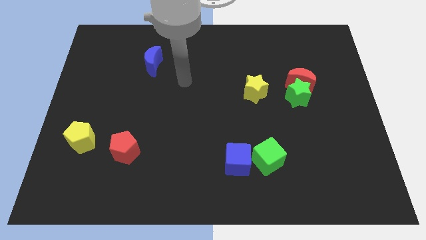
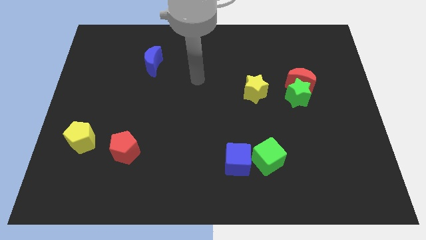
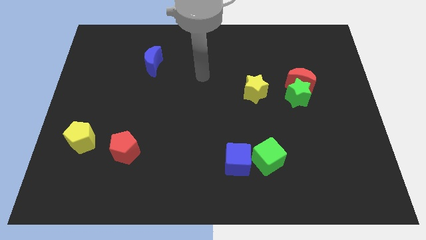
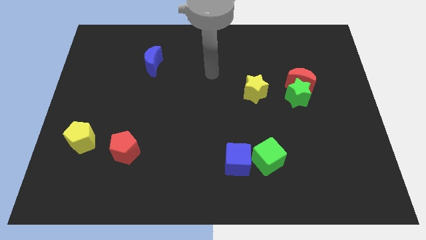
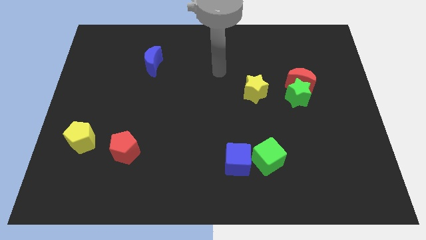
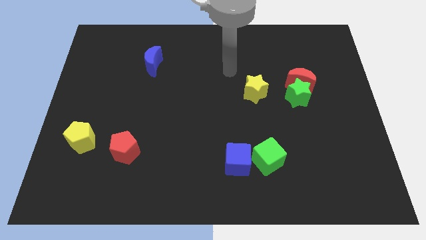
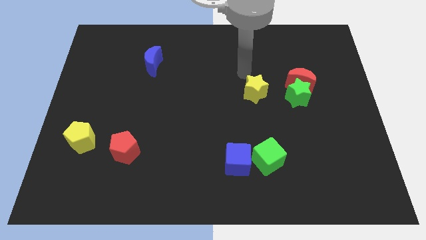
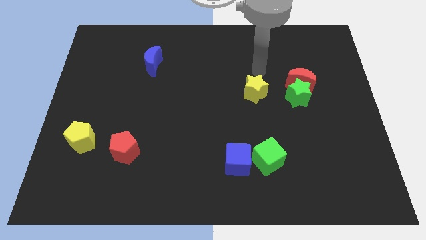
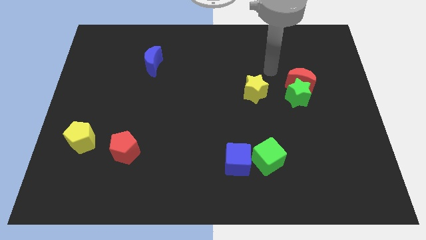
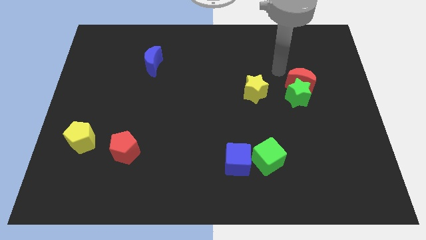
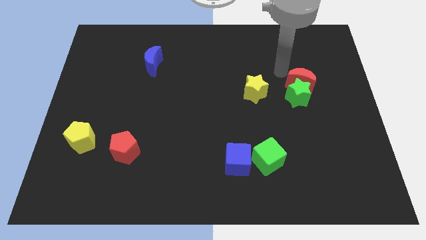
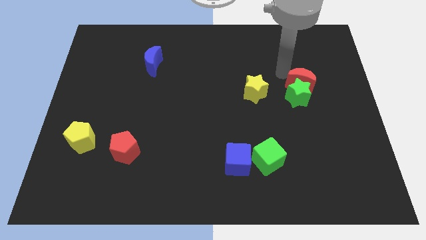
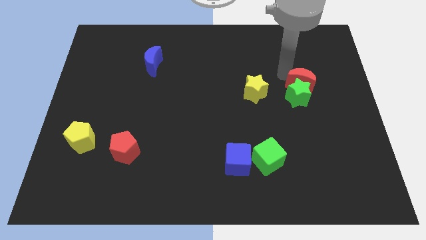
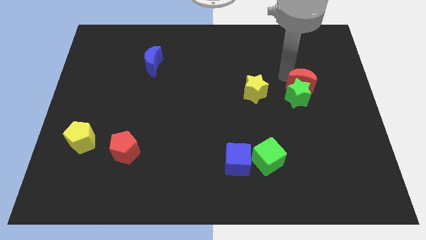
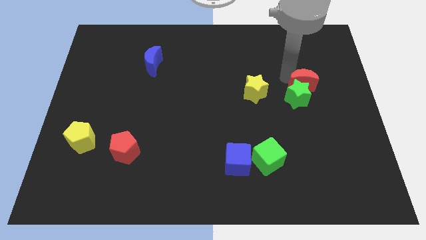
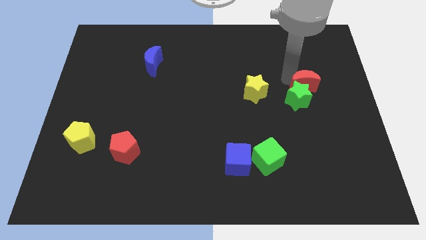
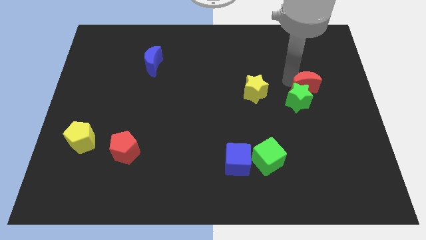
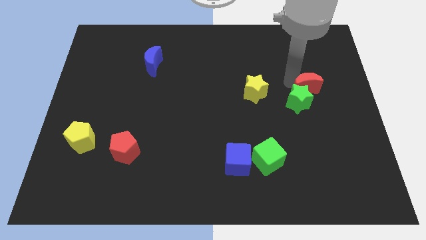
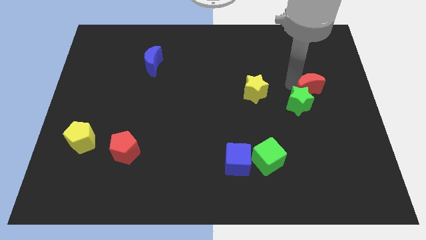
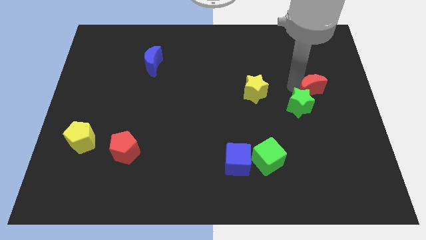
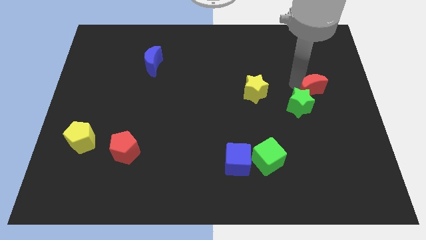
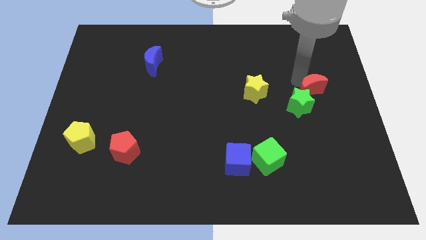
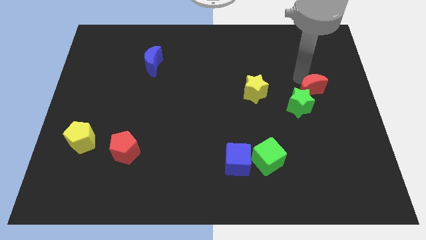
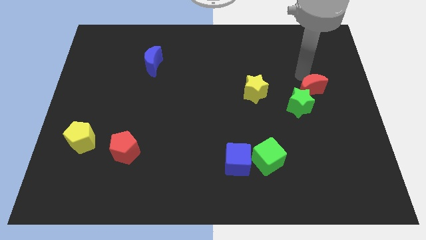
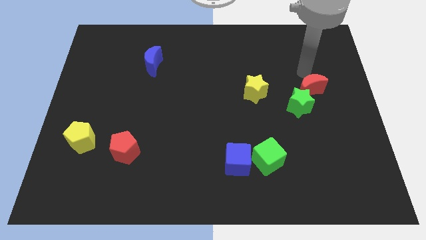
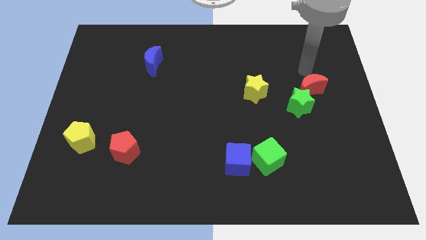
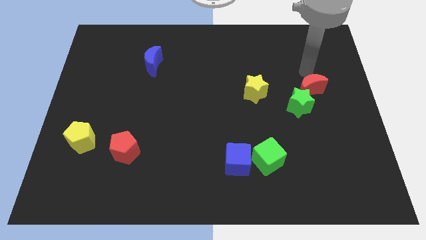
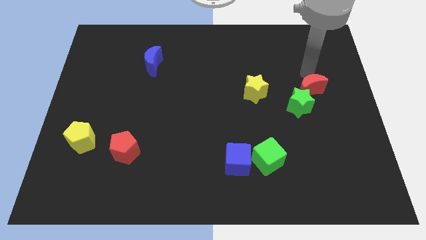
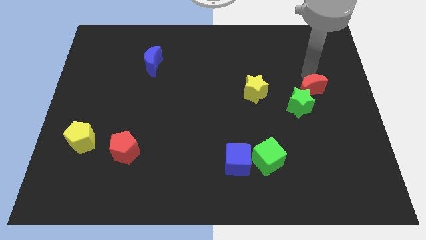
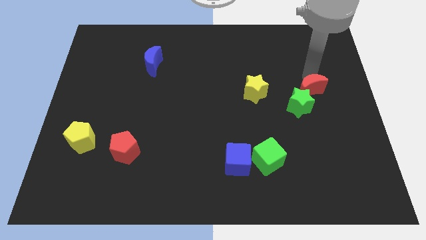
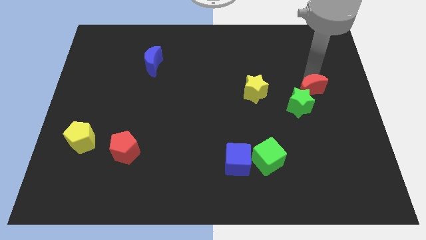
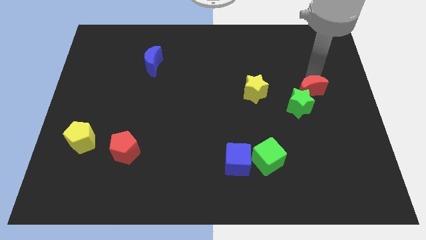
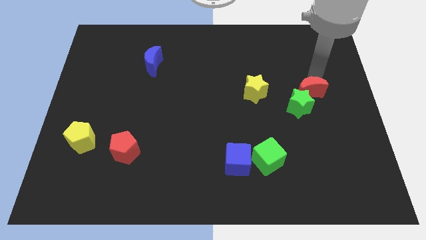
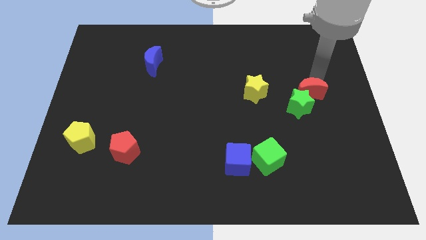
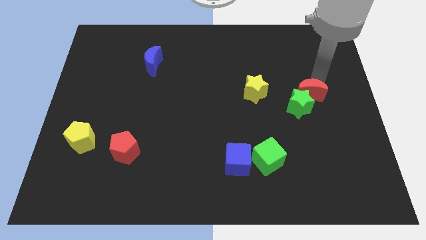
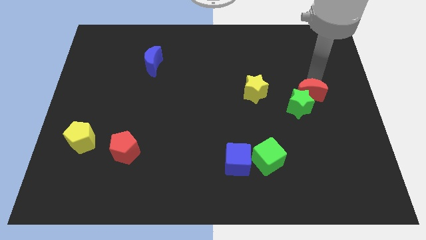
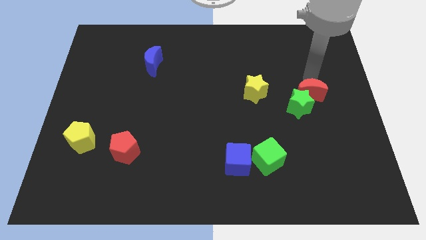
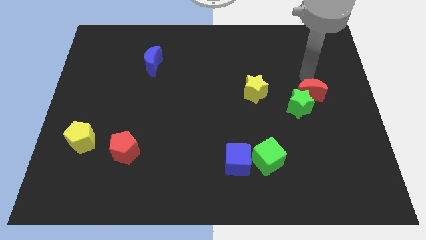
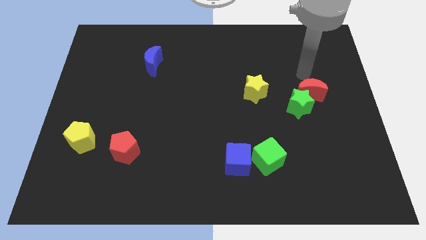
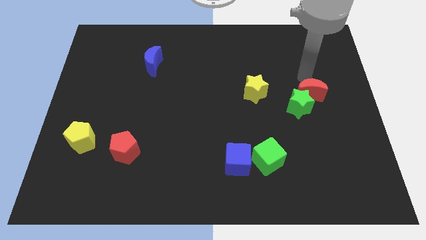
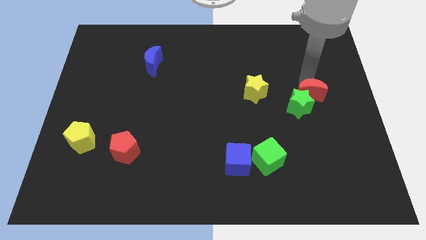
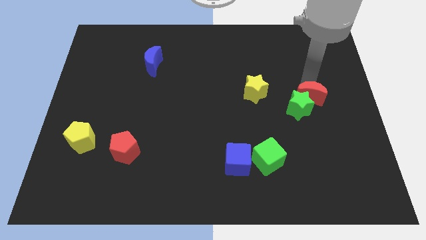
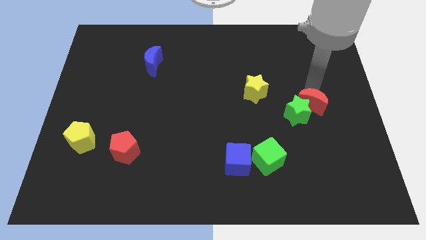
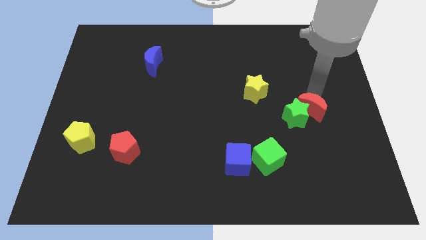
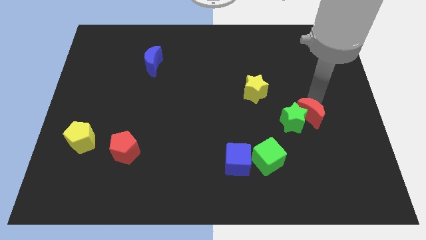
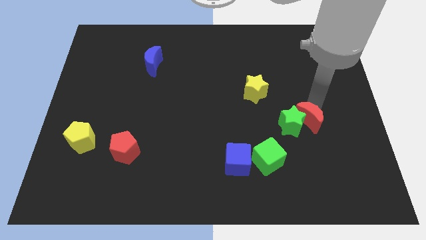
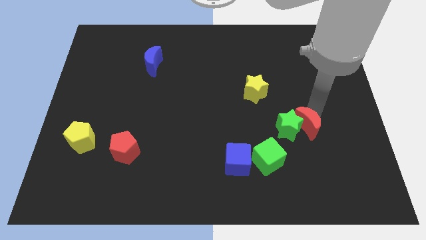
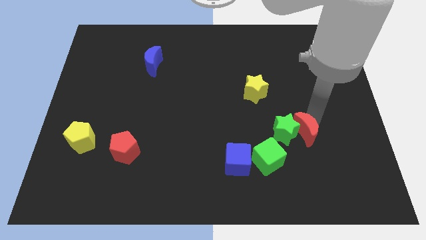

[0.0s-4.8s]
push the red moon to the top right side of the green cube

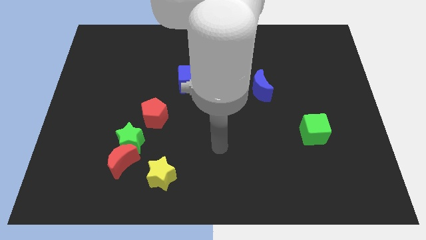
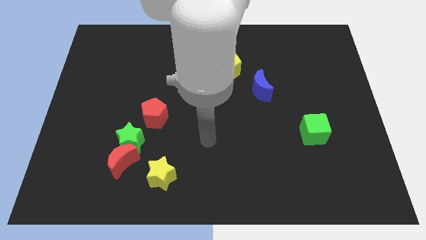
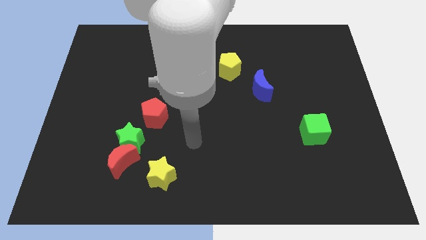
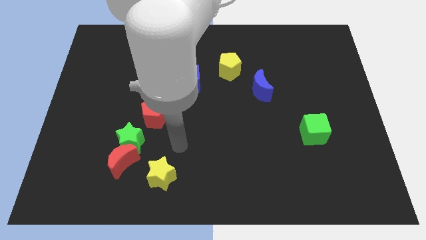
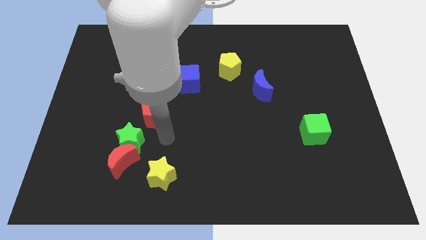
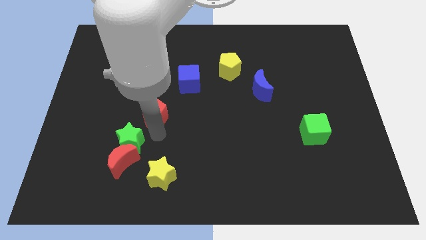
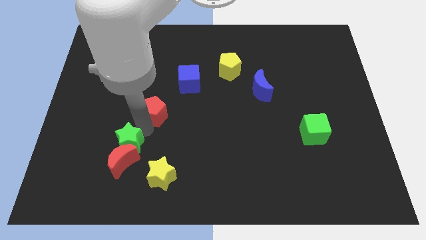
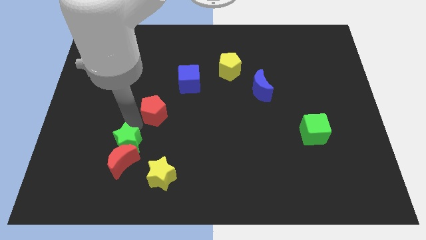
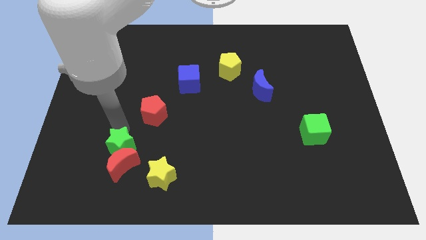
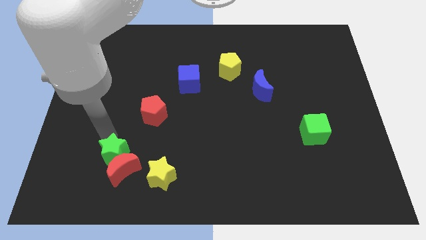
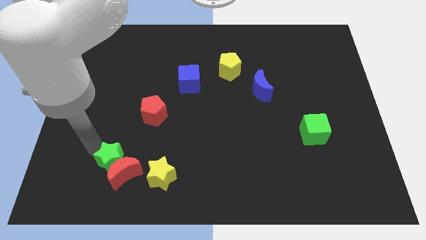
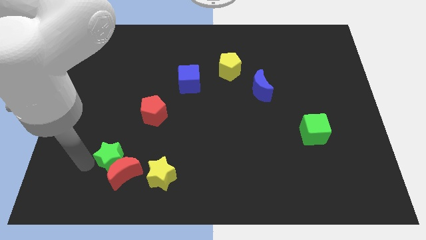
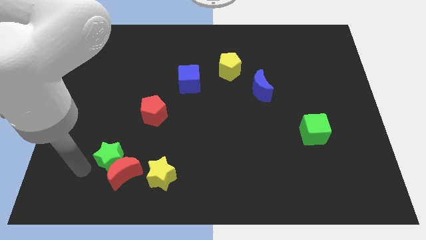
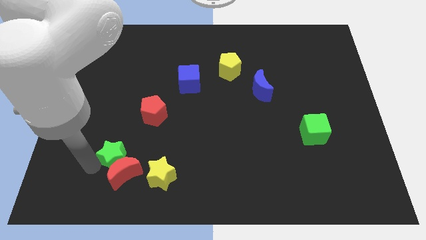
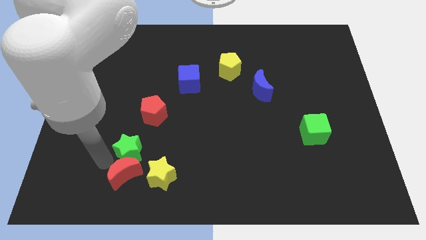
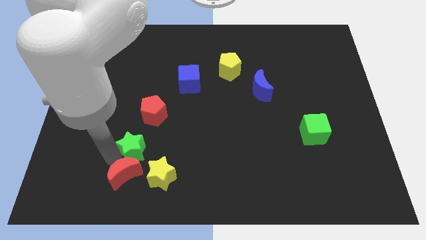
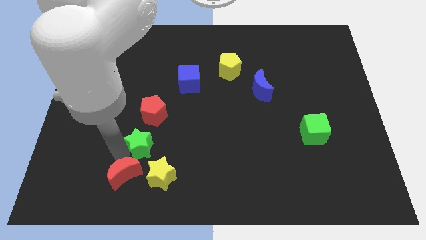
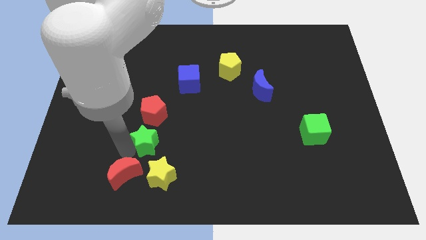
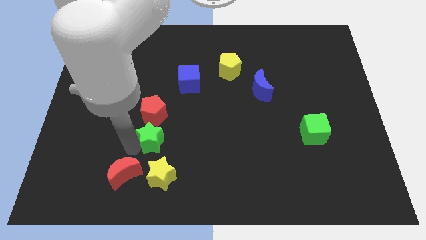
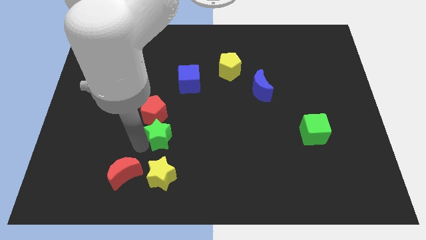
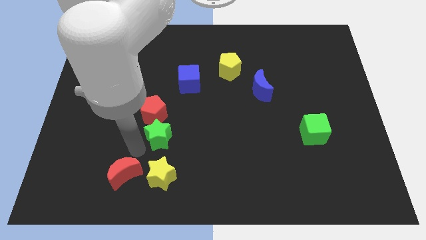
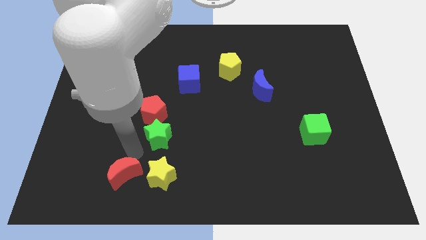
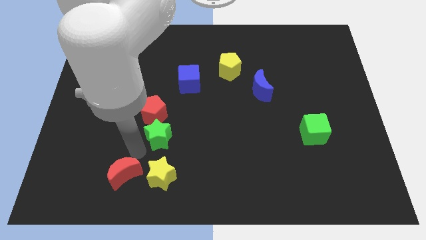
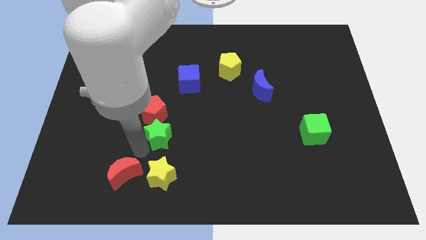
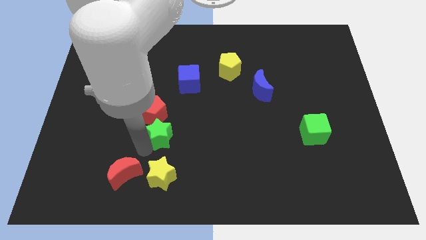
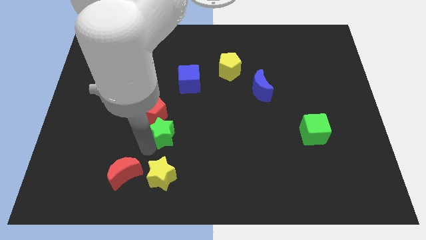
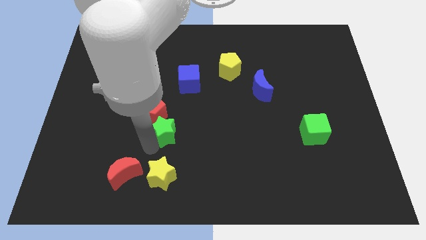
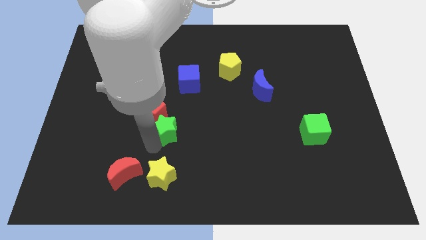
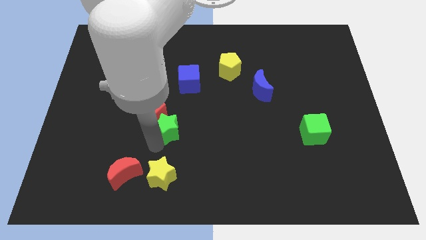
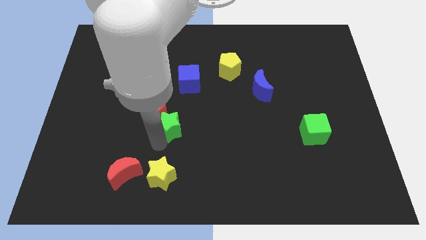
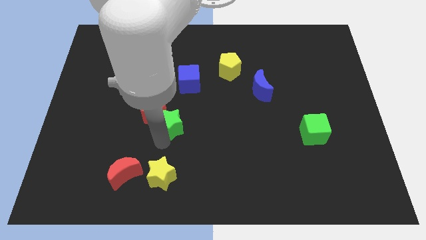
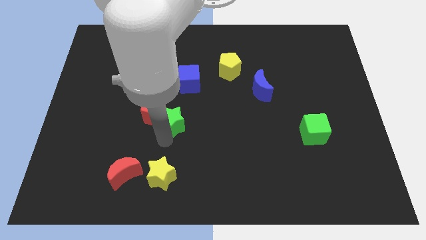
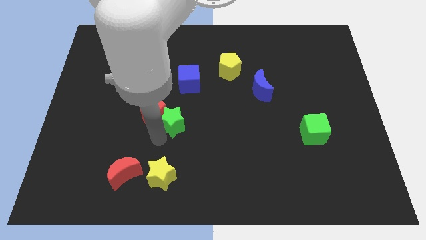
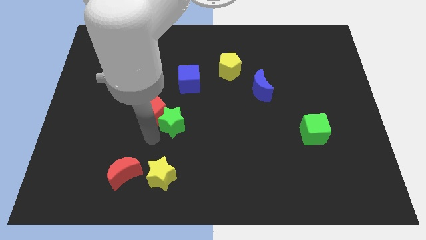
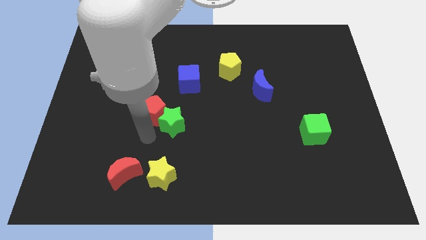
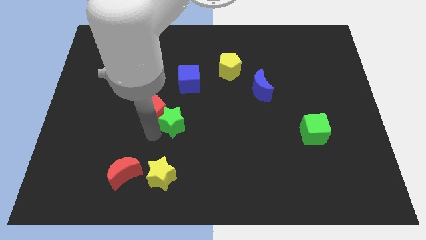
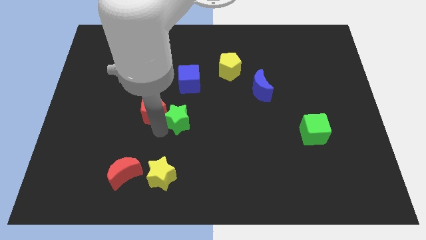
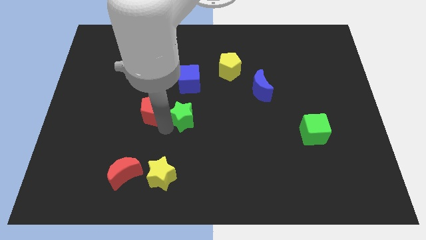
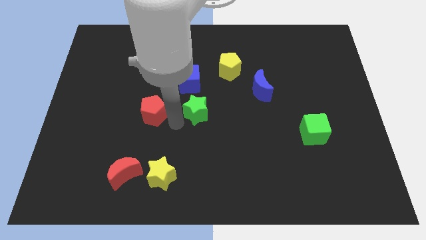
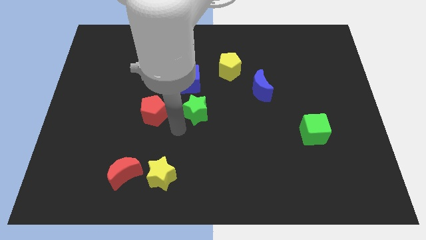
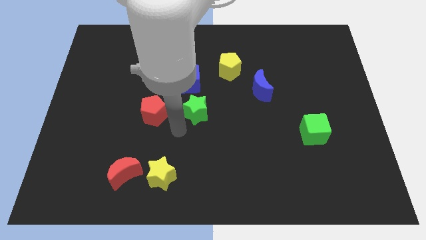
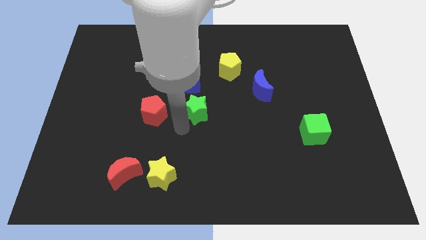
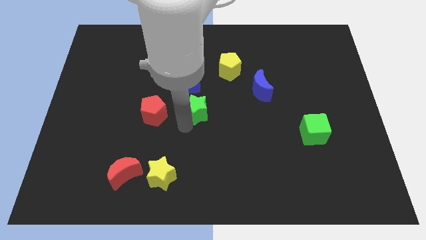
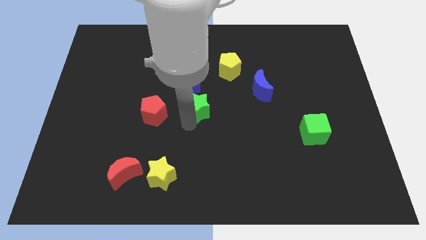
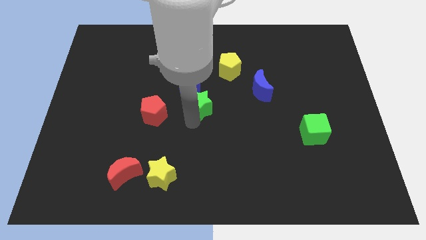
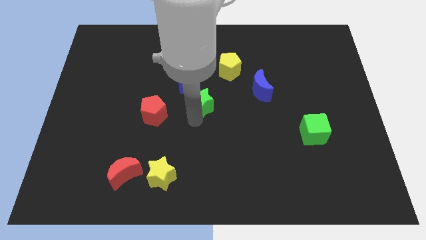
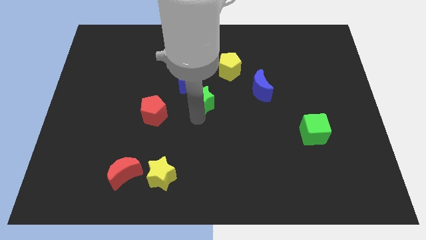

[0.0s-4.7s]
push the green star to the left side of the blue moon
